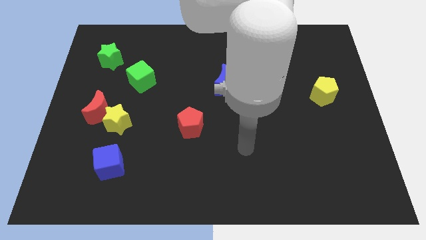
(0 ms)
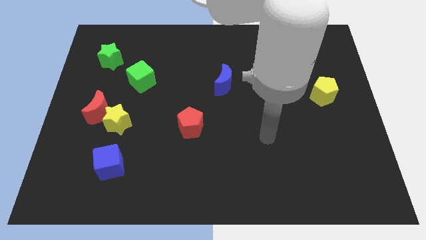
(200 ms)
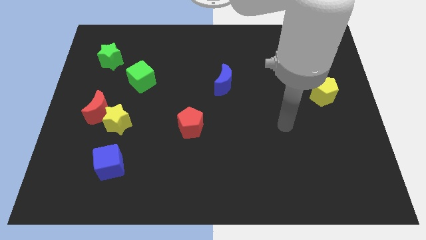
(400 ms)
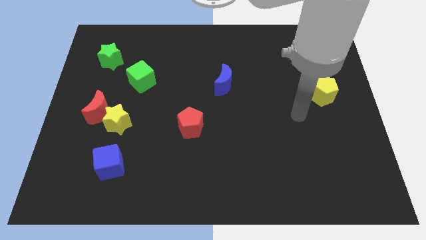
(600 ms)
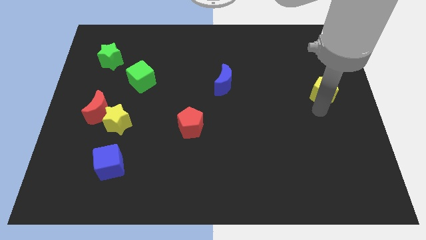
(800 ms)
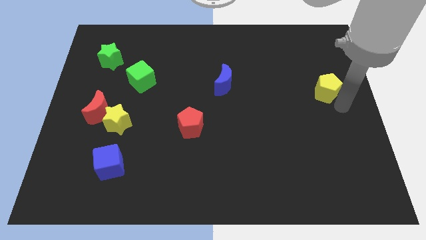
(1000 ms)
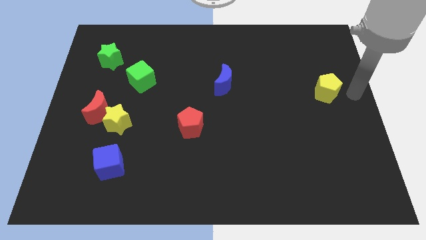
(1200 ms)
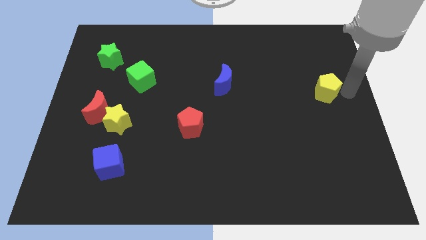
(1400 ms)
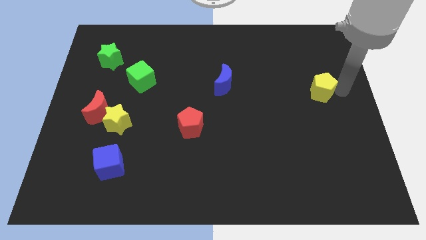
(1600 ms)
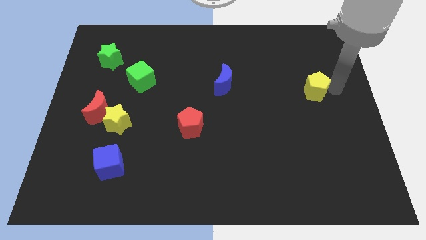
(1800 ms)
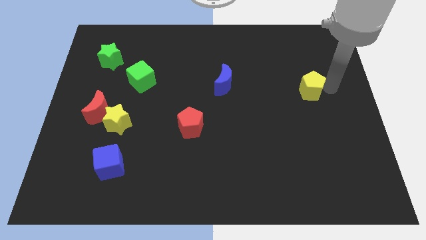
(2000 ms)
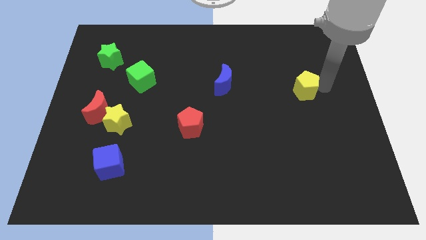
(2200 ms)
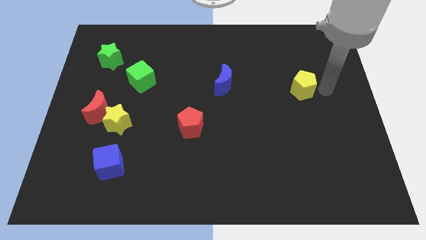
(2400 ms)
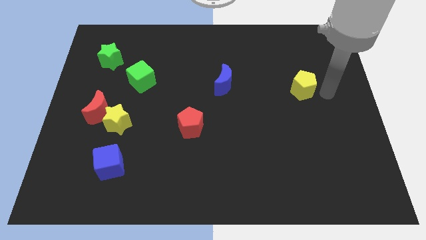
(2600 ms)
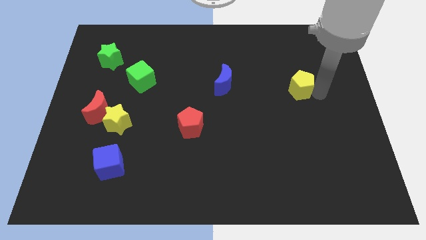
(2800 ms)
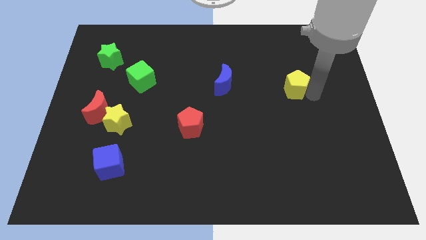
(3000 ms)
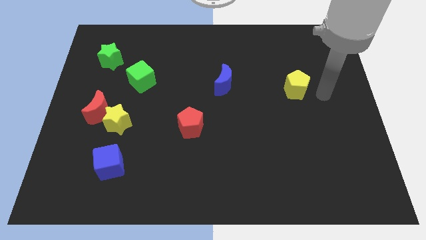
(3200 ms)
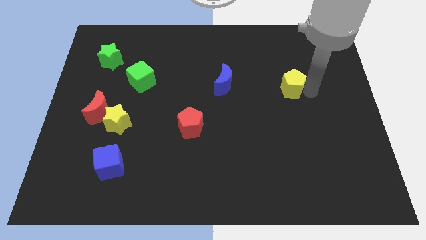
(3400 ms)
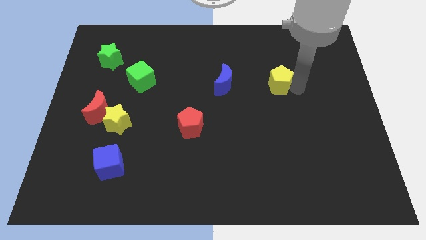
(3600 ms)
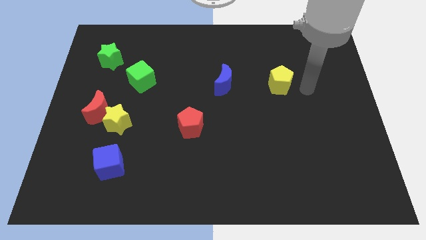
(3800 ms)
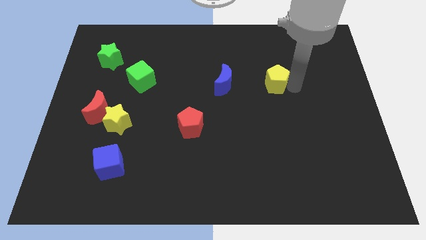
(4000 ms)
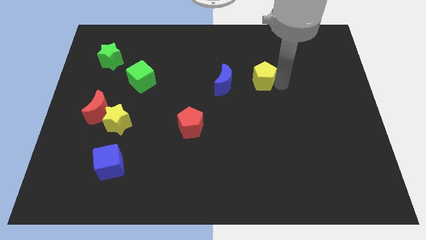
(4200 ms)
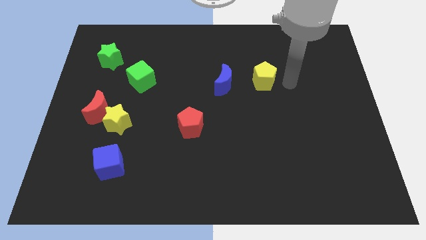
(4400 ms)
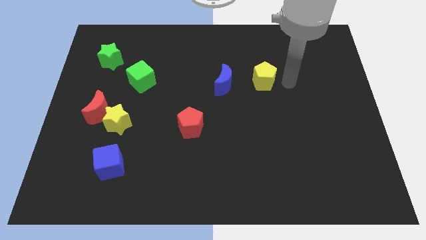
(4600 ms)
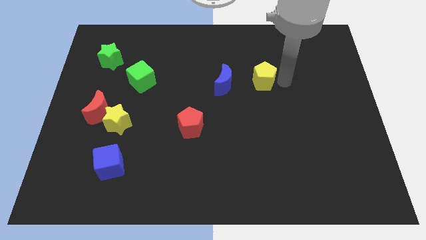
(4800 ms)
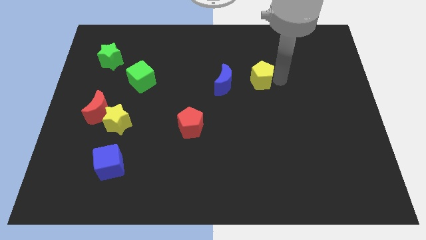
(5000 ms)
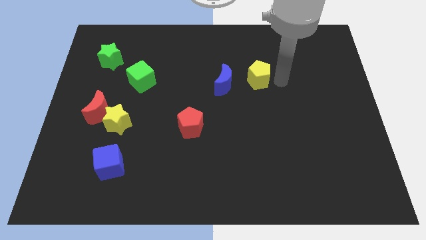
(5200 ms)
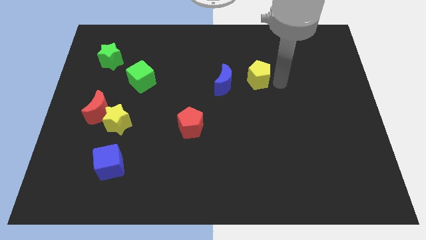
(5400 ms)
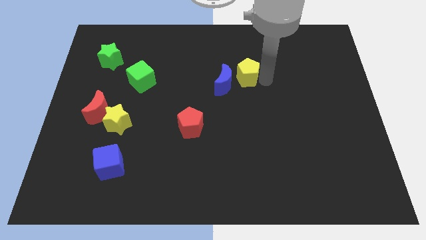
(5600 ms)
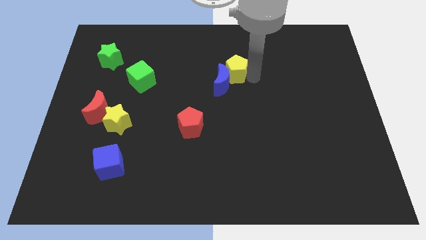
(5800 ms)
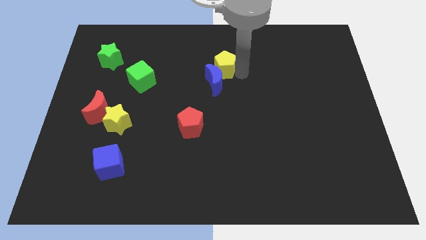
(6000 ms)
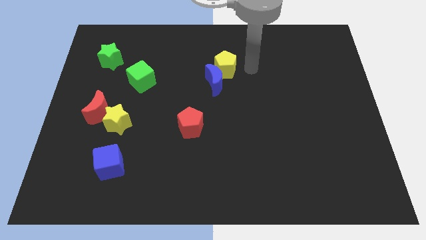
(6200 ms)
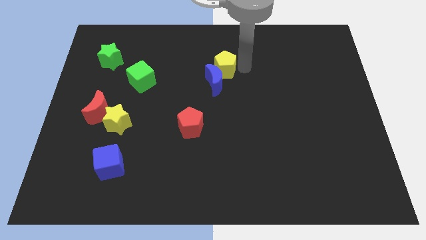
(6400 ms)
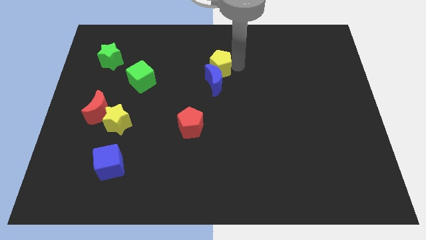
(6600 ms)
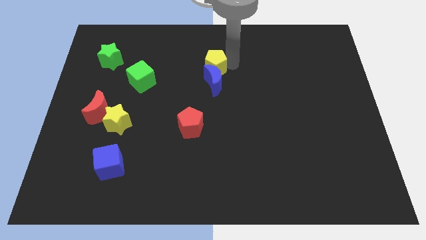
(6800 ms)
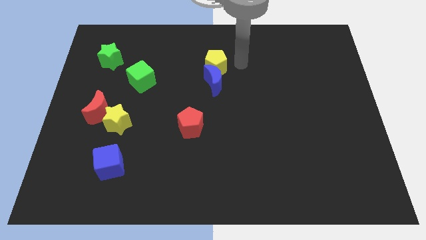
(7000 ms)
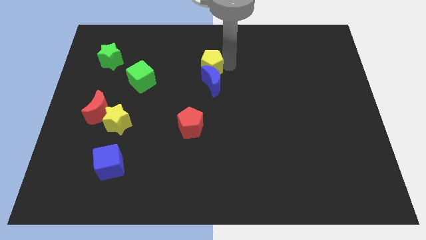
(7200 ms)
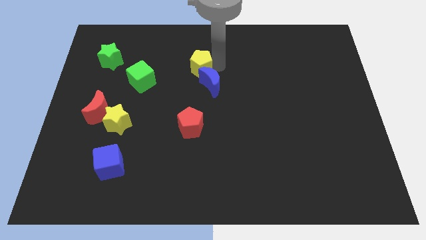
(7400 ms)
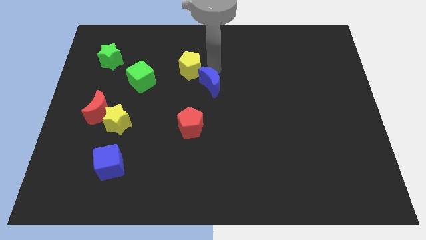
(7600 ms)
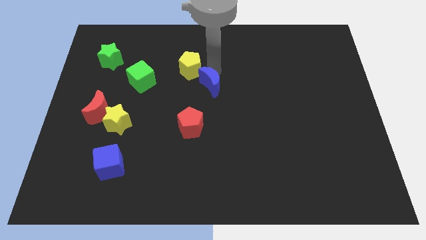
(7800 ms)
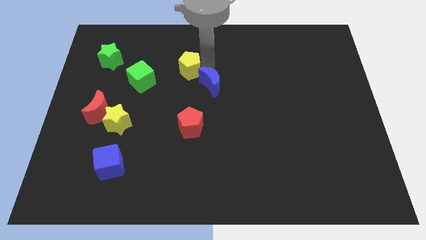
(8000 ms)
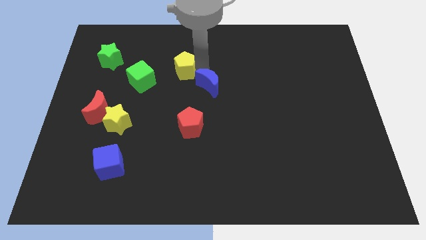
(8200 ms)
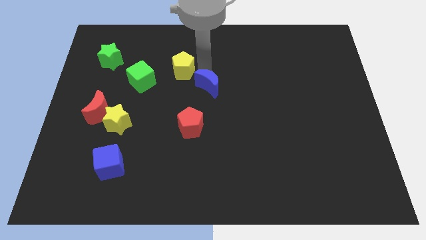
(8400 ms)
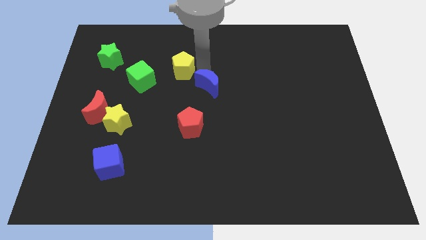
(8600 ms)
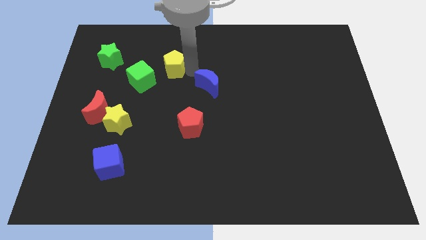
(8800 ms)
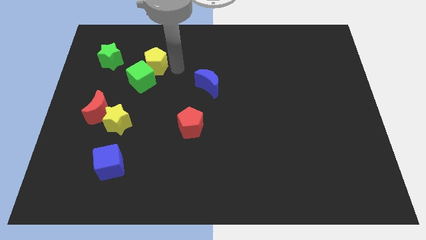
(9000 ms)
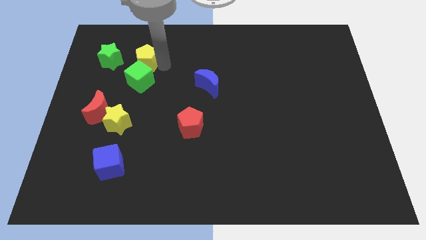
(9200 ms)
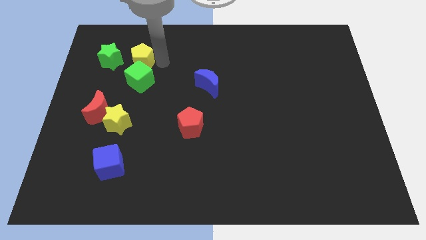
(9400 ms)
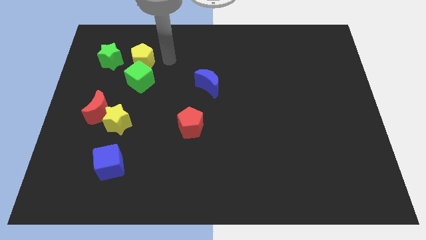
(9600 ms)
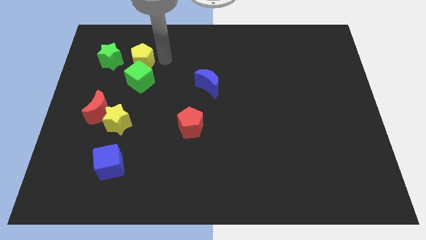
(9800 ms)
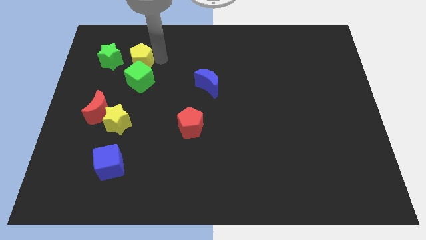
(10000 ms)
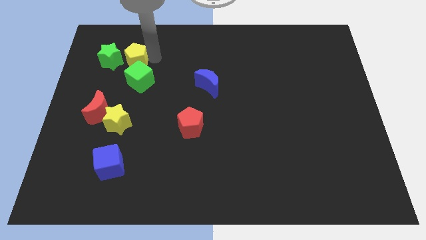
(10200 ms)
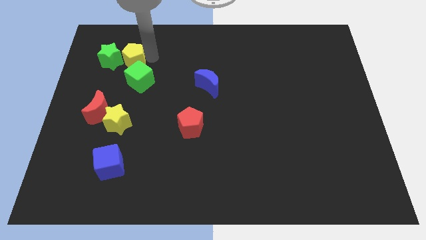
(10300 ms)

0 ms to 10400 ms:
move the yellow pentagon towards the green star
